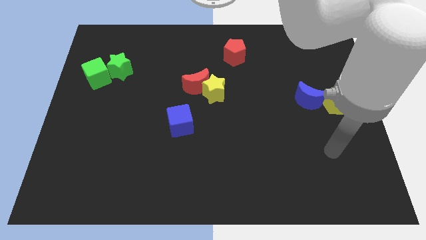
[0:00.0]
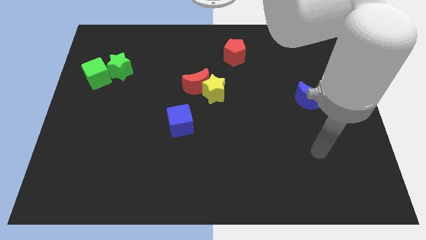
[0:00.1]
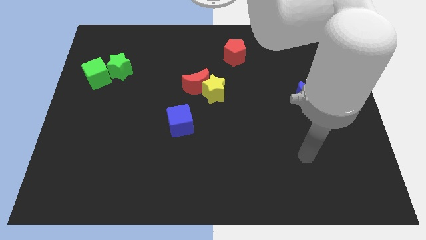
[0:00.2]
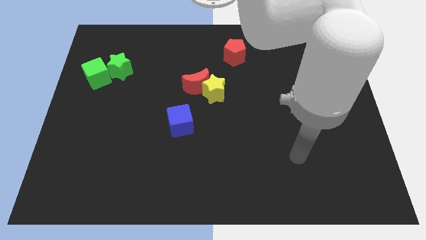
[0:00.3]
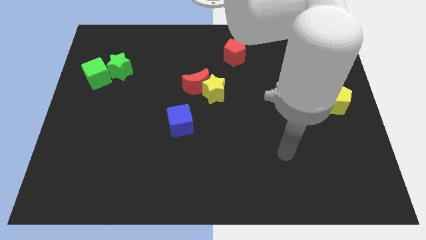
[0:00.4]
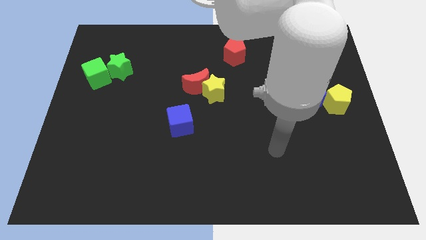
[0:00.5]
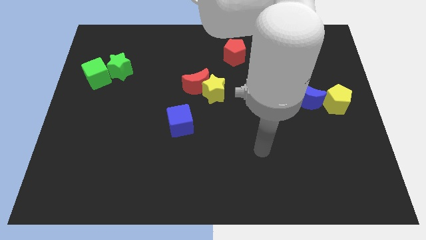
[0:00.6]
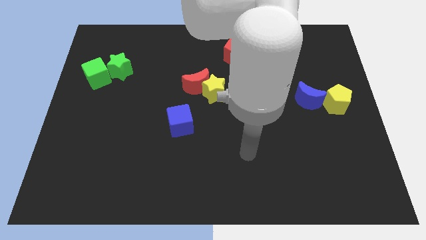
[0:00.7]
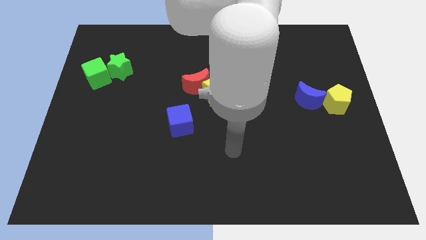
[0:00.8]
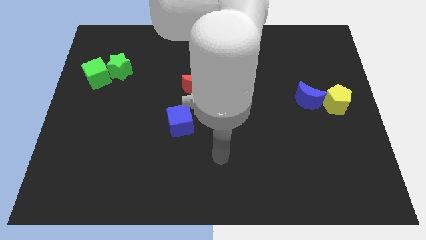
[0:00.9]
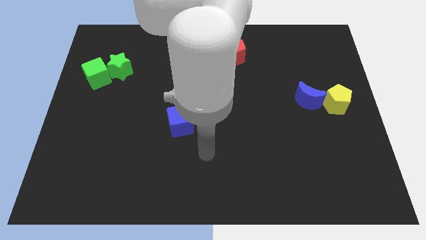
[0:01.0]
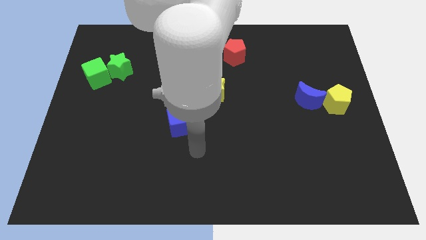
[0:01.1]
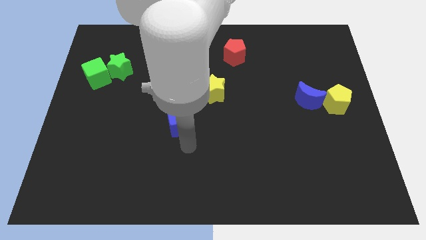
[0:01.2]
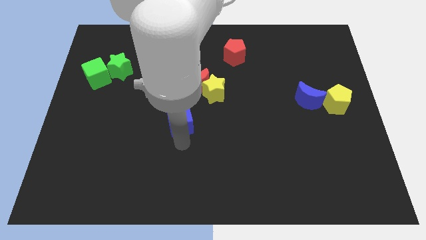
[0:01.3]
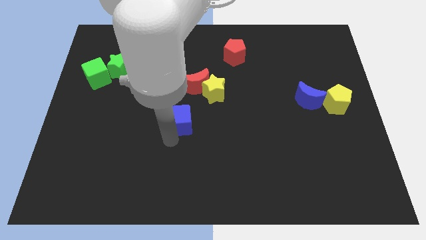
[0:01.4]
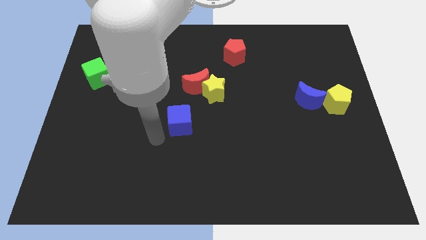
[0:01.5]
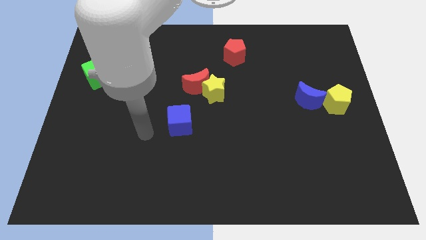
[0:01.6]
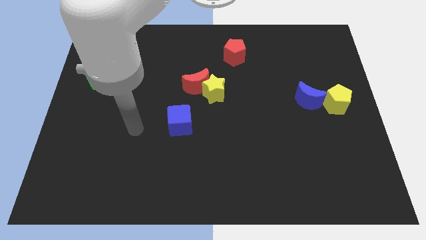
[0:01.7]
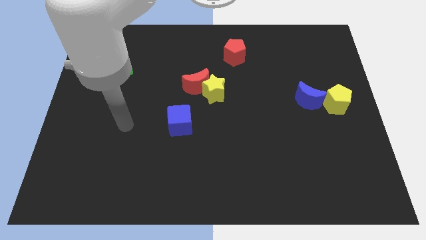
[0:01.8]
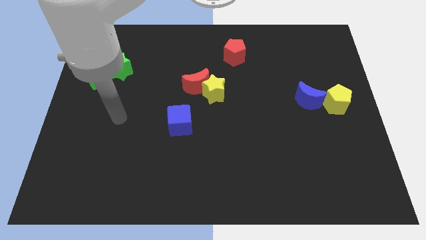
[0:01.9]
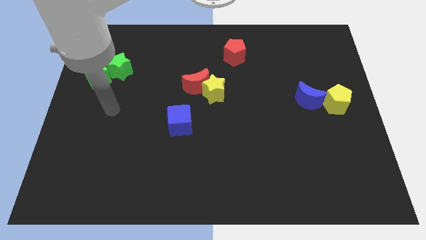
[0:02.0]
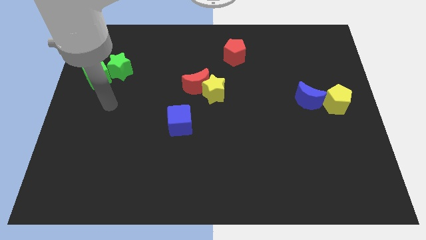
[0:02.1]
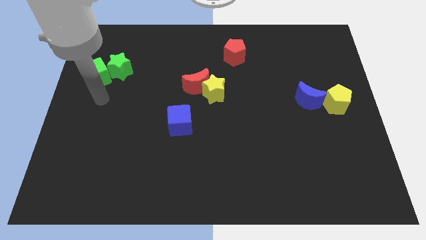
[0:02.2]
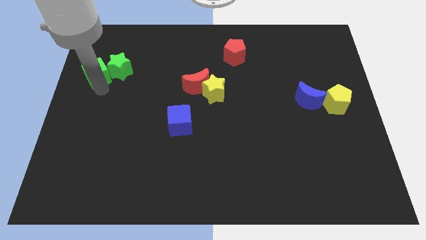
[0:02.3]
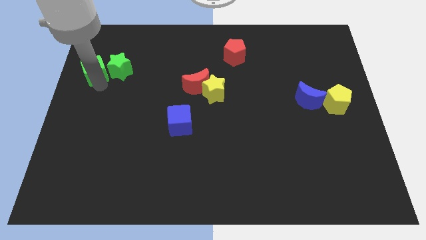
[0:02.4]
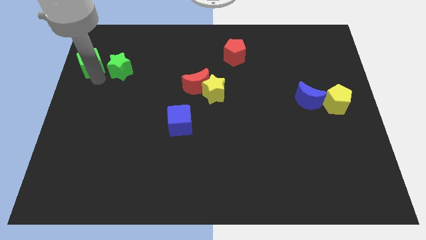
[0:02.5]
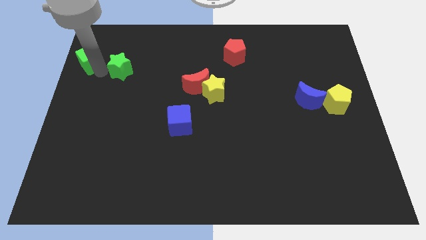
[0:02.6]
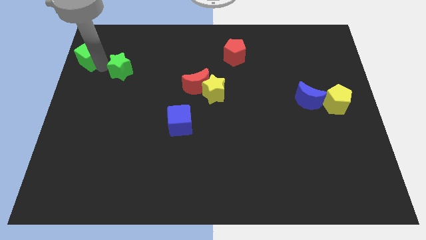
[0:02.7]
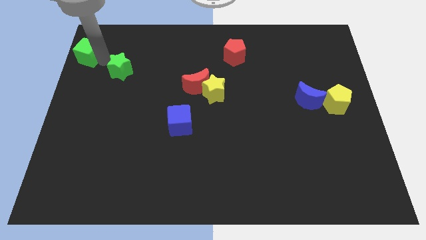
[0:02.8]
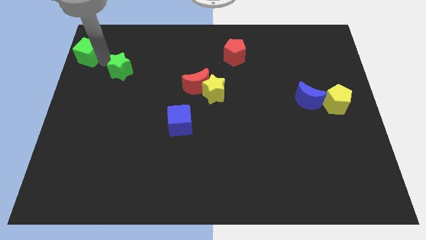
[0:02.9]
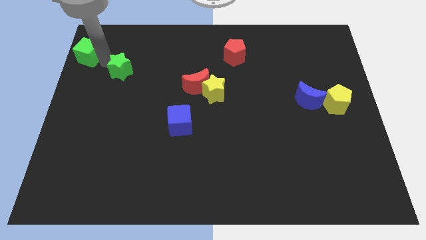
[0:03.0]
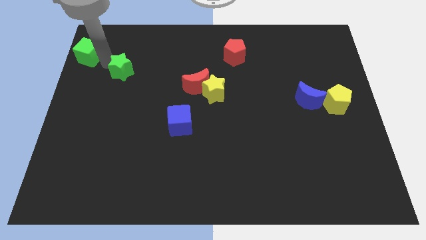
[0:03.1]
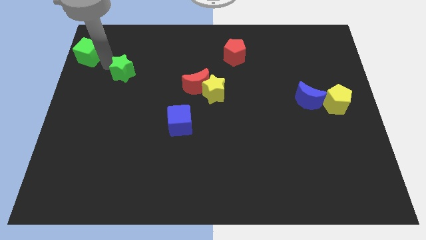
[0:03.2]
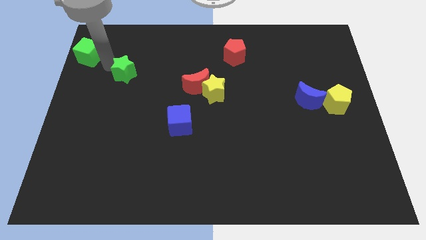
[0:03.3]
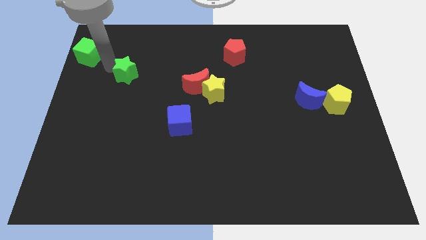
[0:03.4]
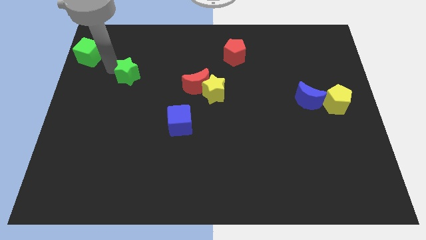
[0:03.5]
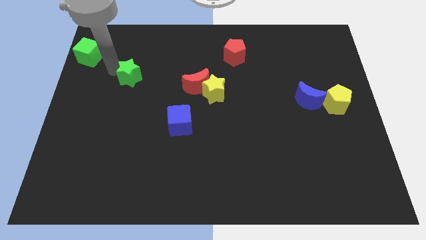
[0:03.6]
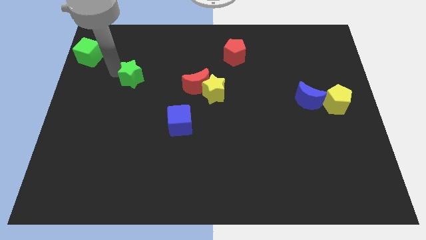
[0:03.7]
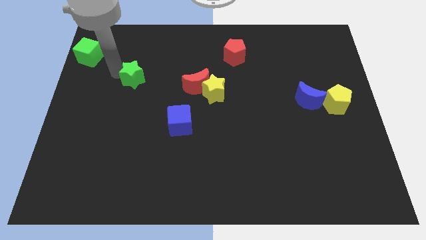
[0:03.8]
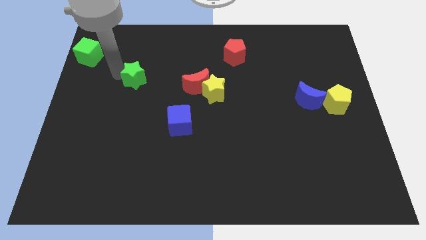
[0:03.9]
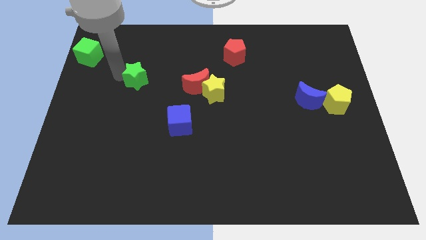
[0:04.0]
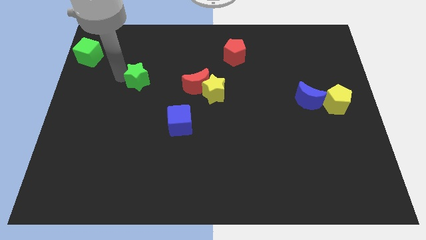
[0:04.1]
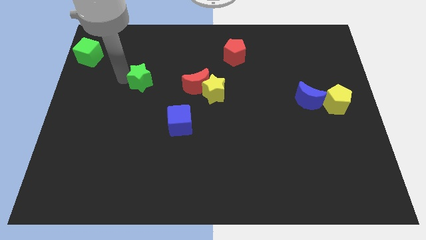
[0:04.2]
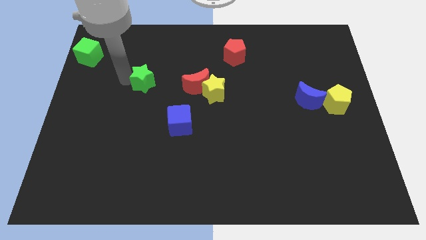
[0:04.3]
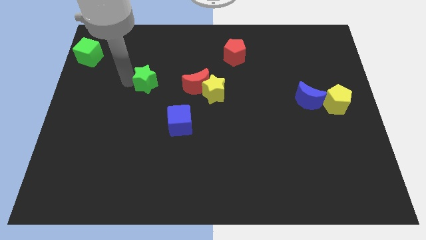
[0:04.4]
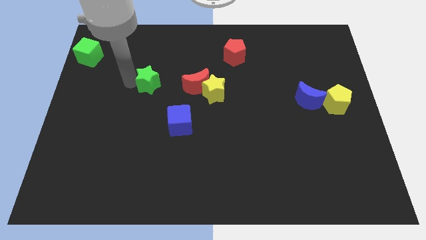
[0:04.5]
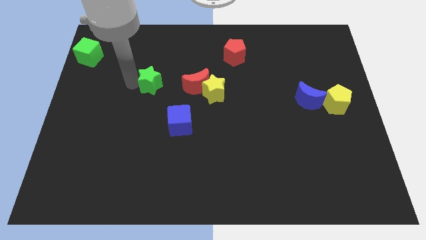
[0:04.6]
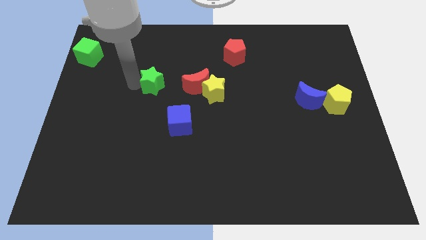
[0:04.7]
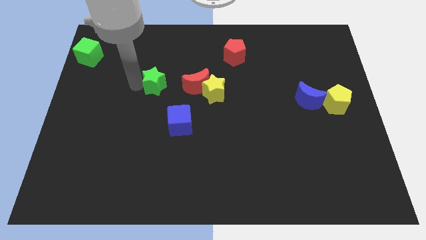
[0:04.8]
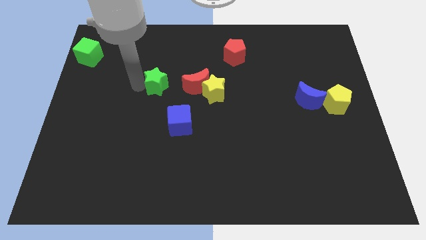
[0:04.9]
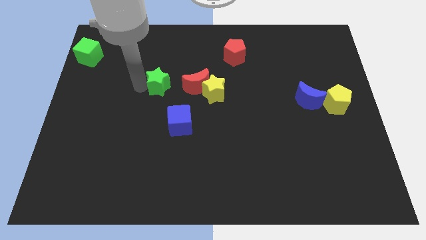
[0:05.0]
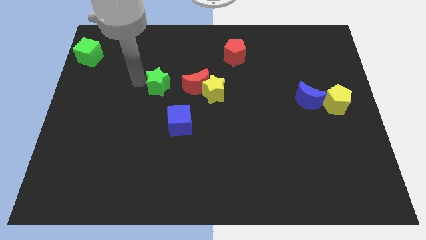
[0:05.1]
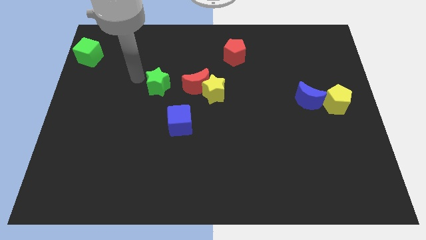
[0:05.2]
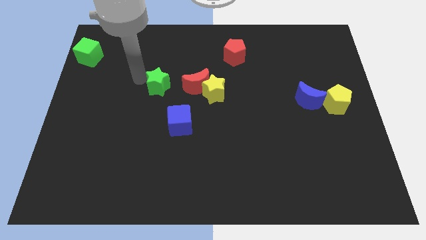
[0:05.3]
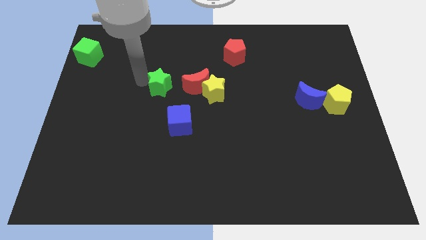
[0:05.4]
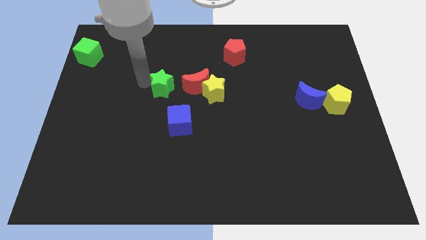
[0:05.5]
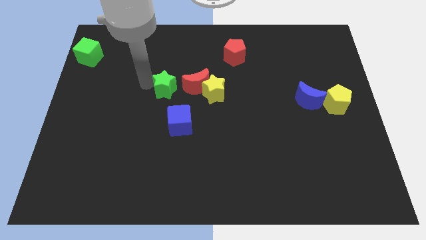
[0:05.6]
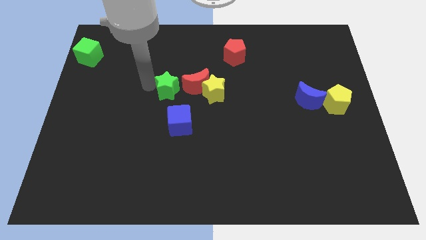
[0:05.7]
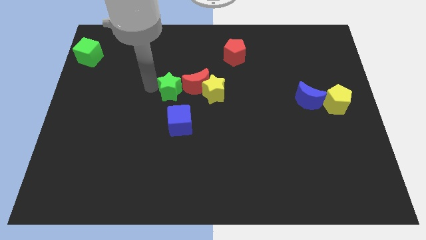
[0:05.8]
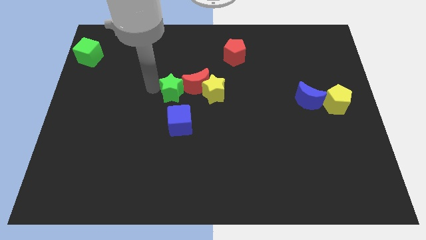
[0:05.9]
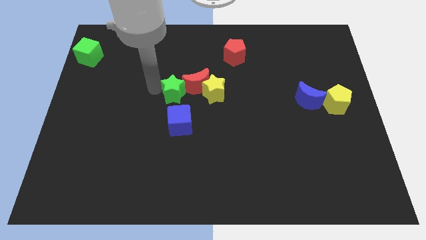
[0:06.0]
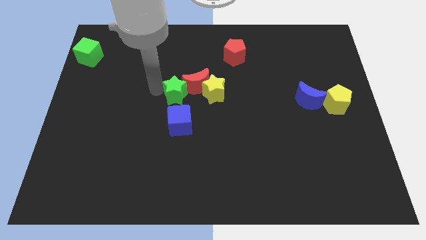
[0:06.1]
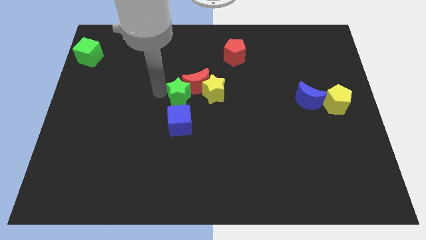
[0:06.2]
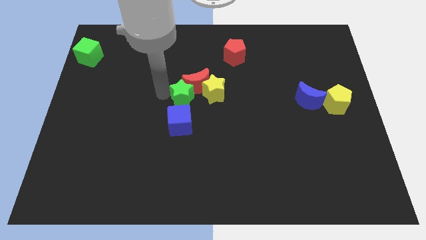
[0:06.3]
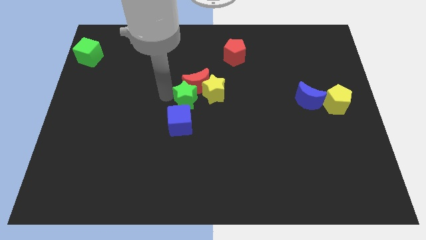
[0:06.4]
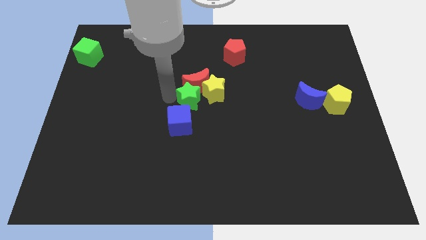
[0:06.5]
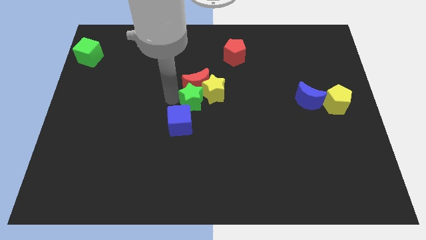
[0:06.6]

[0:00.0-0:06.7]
put the green star next to the yellow star

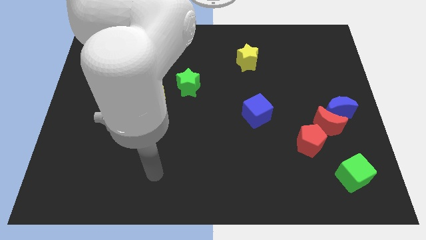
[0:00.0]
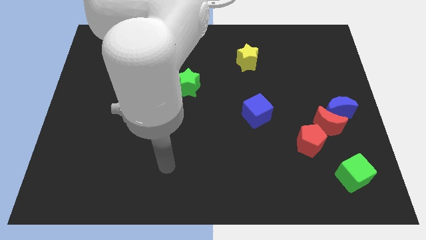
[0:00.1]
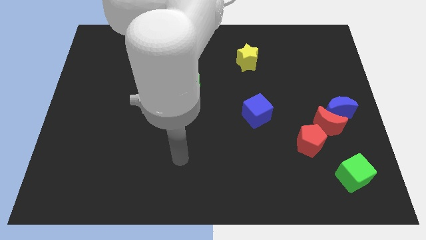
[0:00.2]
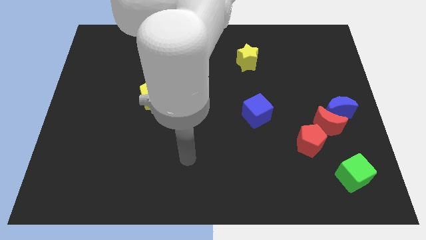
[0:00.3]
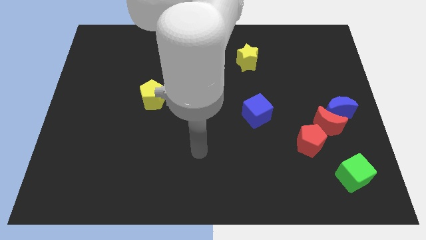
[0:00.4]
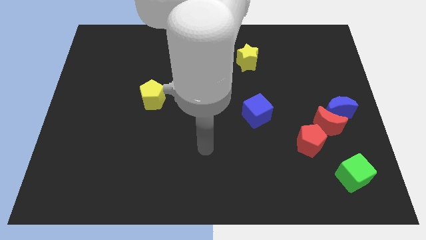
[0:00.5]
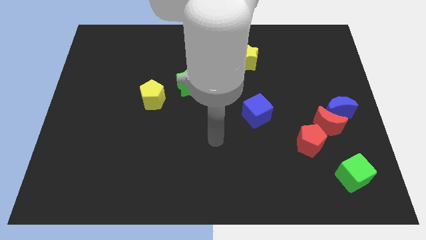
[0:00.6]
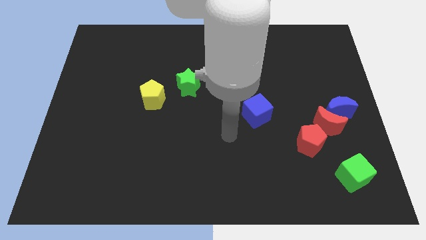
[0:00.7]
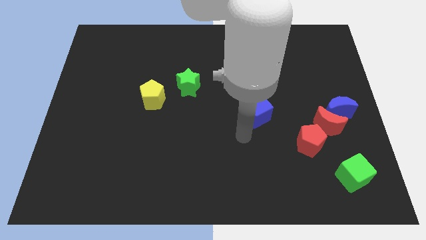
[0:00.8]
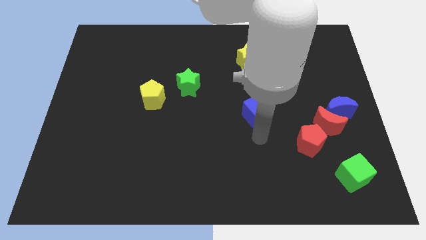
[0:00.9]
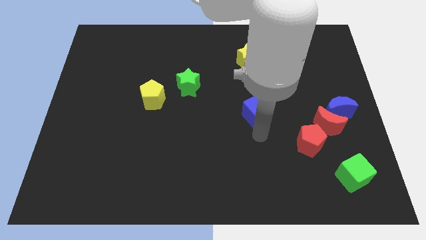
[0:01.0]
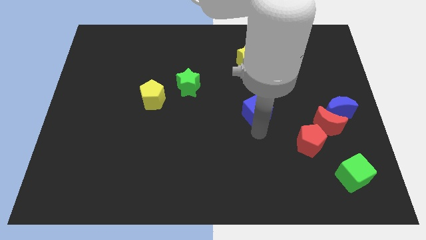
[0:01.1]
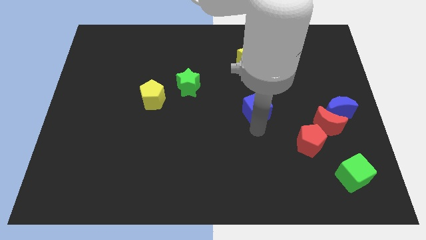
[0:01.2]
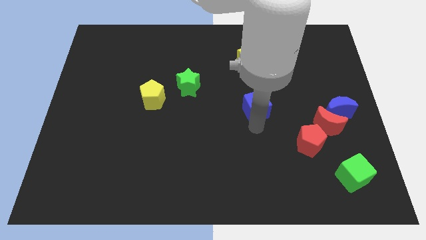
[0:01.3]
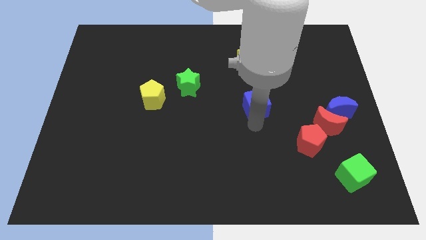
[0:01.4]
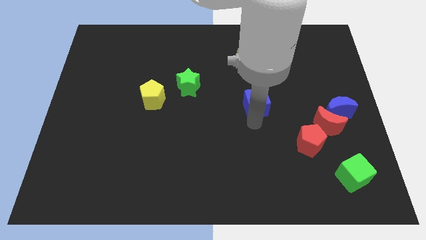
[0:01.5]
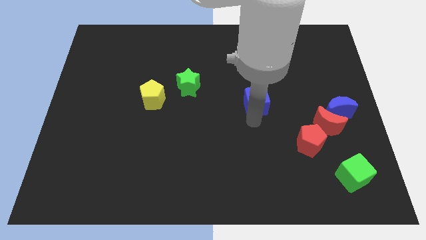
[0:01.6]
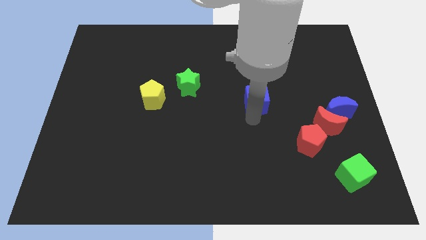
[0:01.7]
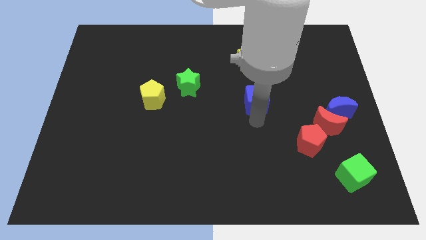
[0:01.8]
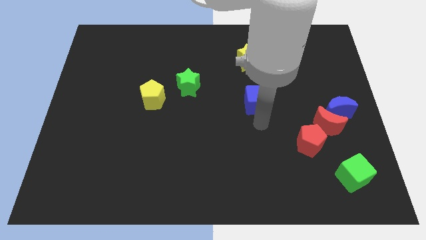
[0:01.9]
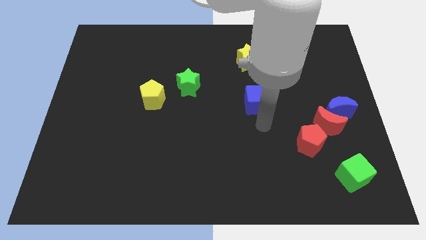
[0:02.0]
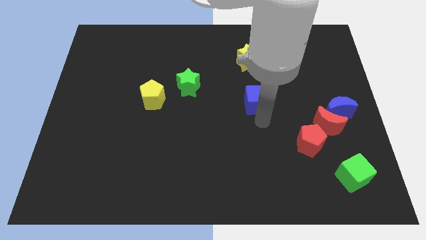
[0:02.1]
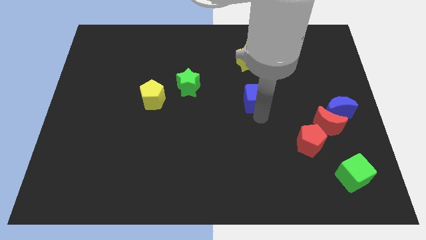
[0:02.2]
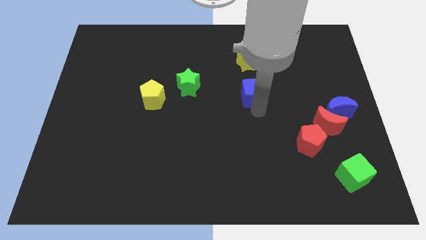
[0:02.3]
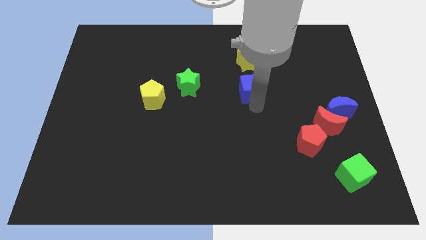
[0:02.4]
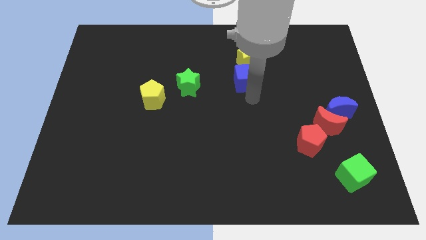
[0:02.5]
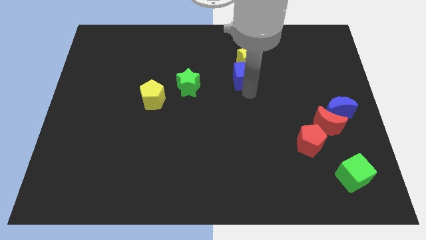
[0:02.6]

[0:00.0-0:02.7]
move the blue cube to the yellow star
